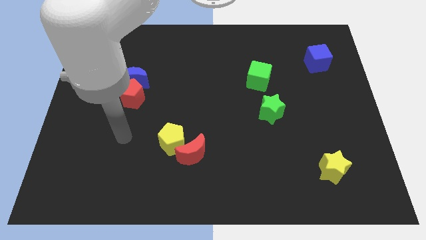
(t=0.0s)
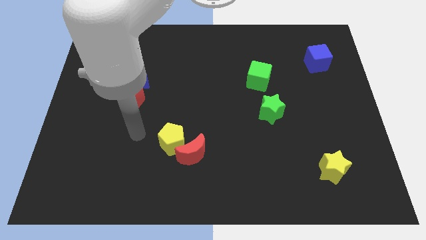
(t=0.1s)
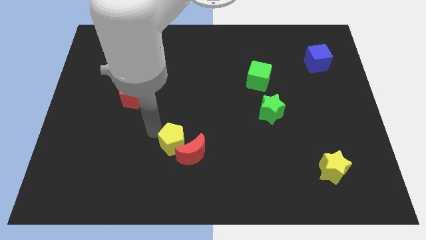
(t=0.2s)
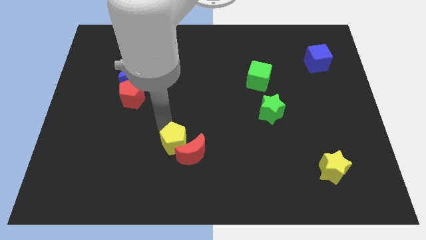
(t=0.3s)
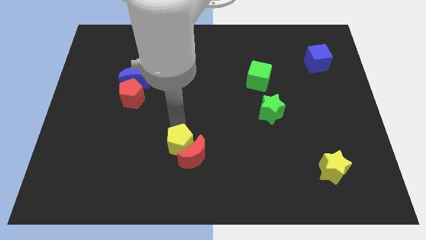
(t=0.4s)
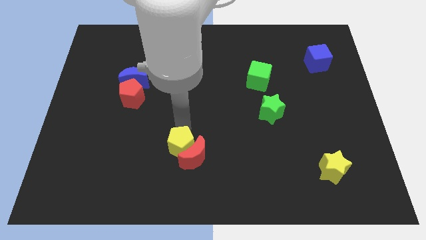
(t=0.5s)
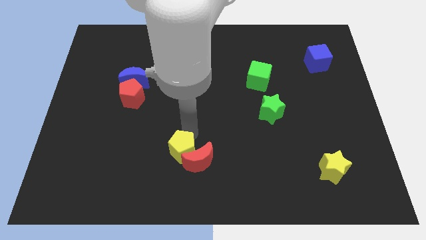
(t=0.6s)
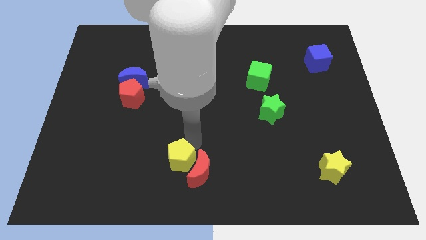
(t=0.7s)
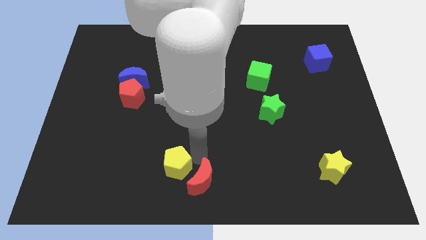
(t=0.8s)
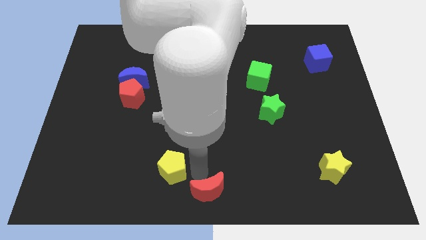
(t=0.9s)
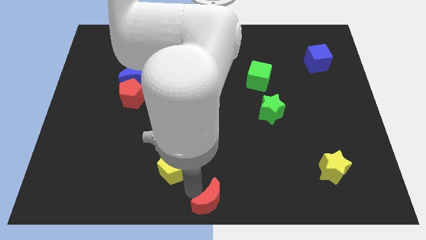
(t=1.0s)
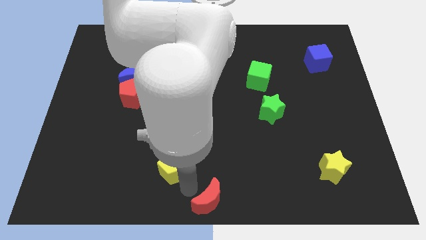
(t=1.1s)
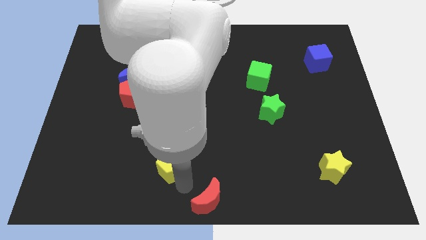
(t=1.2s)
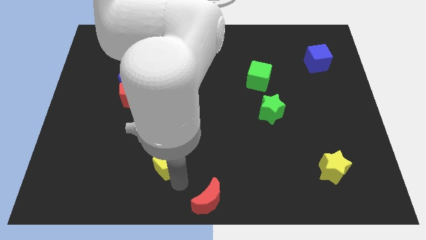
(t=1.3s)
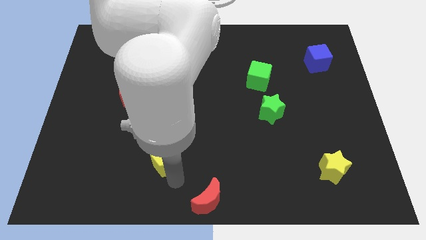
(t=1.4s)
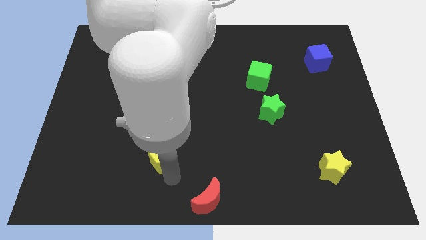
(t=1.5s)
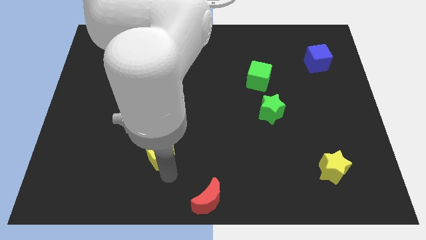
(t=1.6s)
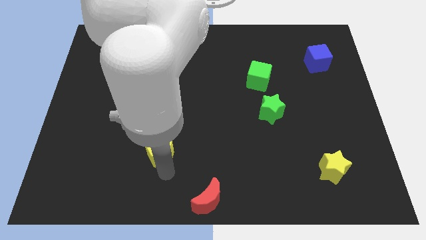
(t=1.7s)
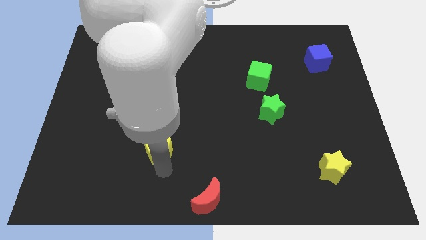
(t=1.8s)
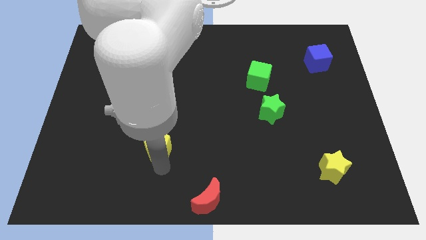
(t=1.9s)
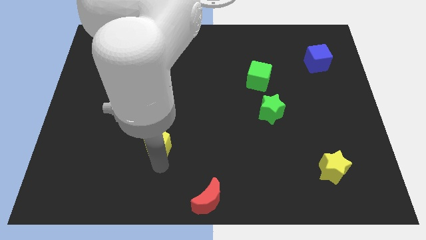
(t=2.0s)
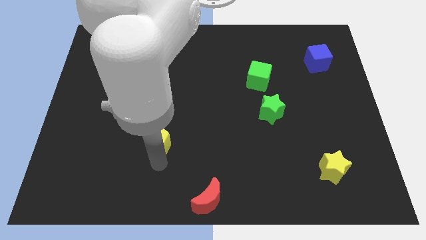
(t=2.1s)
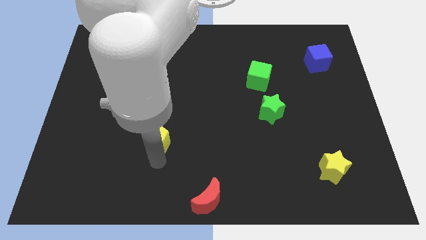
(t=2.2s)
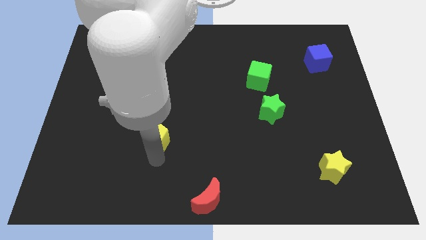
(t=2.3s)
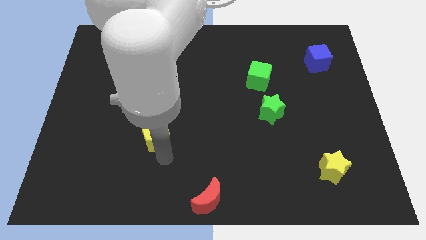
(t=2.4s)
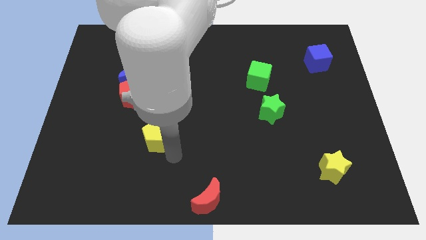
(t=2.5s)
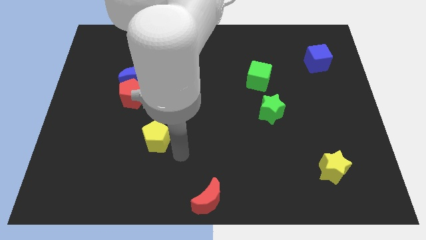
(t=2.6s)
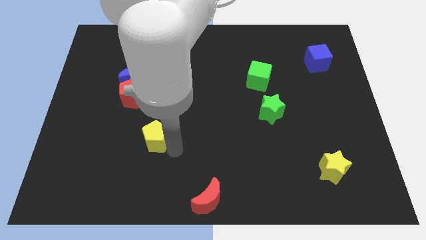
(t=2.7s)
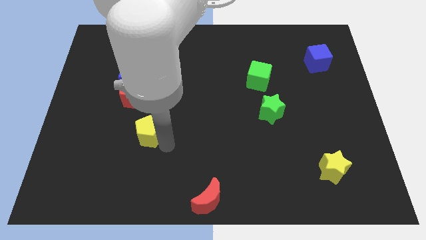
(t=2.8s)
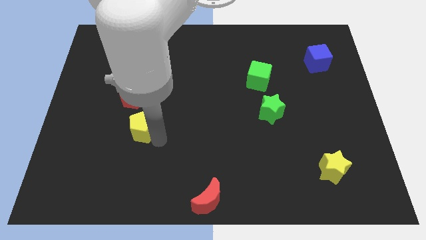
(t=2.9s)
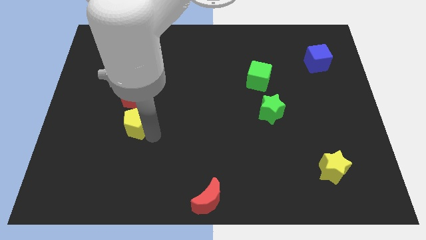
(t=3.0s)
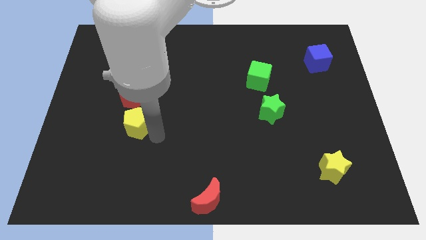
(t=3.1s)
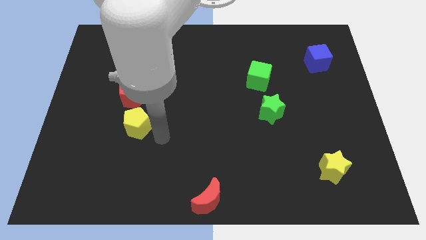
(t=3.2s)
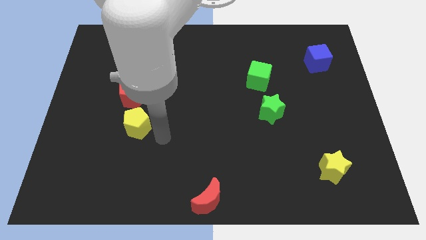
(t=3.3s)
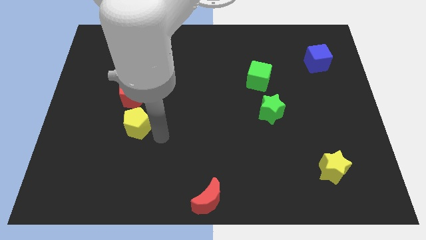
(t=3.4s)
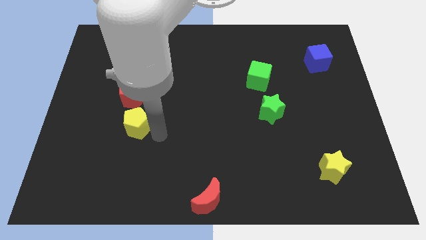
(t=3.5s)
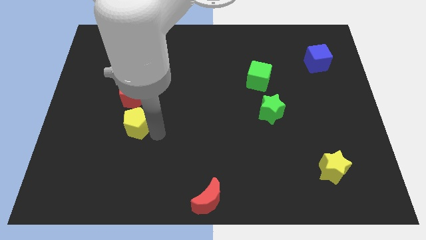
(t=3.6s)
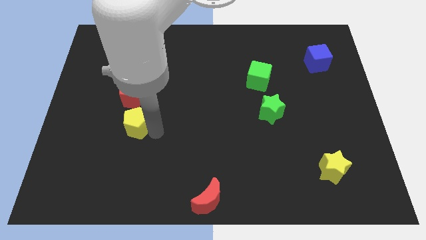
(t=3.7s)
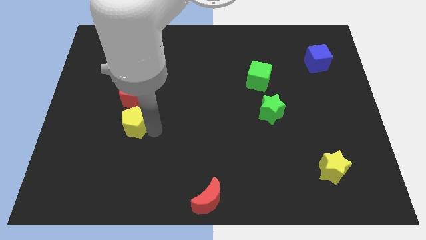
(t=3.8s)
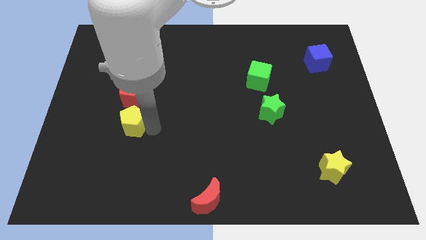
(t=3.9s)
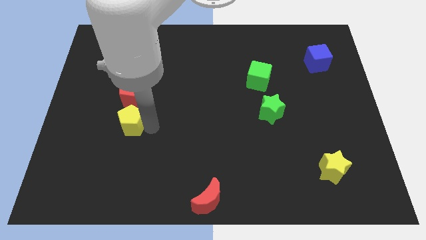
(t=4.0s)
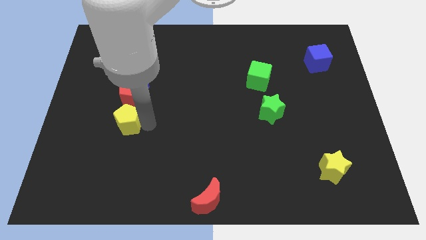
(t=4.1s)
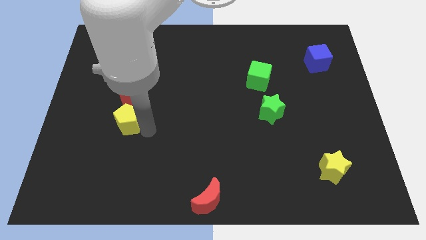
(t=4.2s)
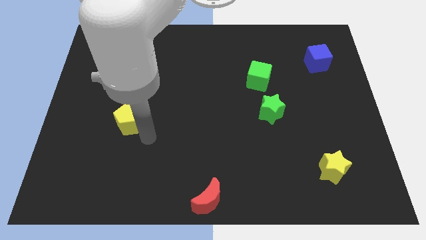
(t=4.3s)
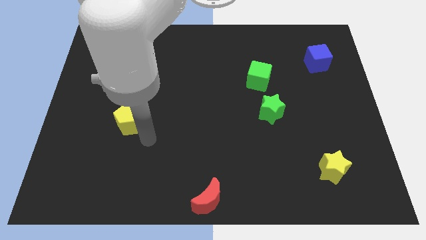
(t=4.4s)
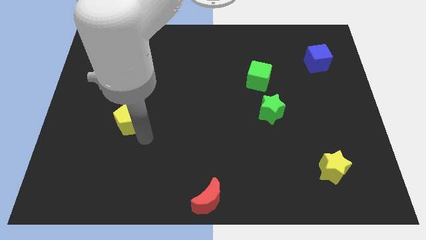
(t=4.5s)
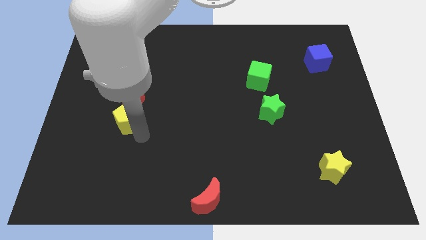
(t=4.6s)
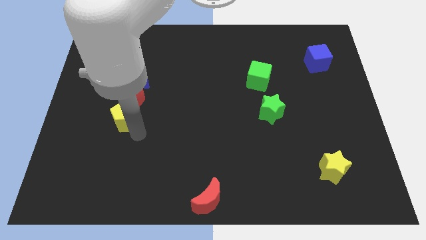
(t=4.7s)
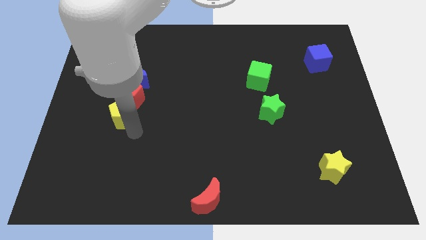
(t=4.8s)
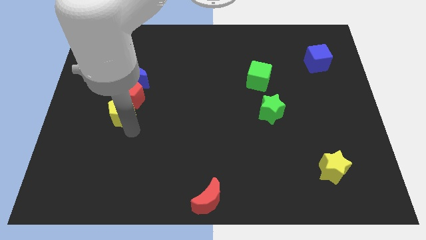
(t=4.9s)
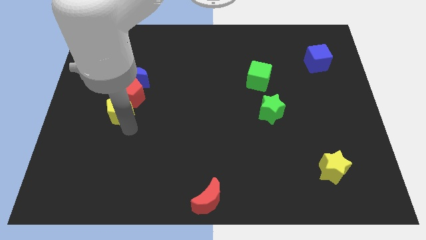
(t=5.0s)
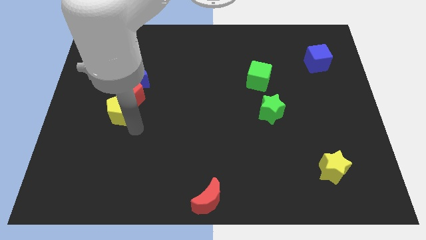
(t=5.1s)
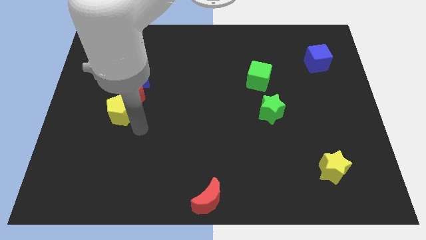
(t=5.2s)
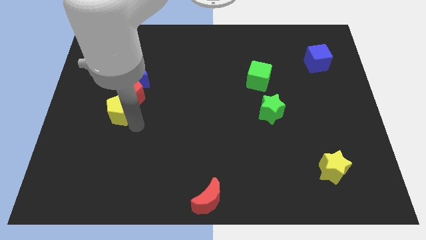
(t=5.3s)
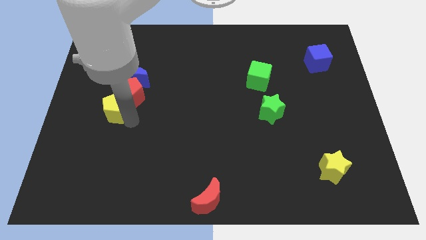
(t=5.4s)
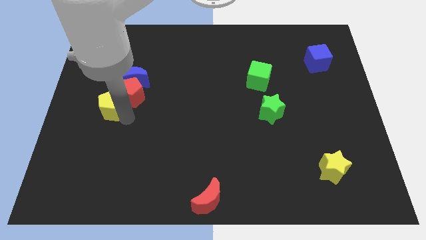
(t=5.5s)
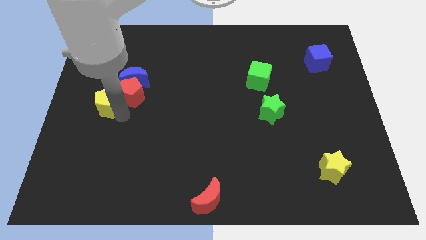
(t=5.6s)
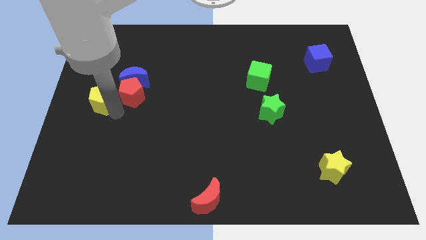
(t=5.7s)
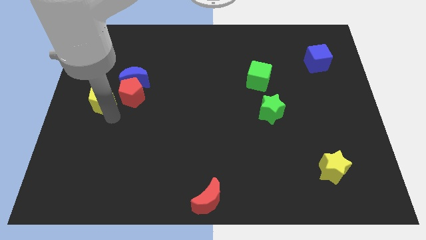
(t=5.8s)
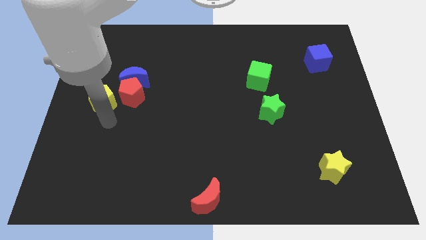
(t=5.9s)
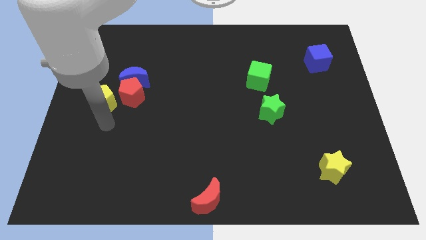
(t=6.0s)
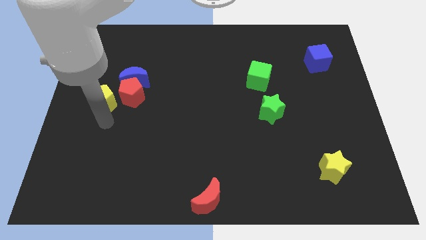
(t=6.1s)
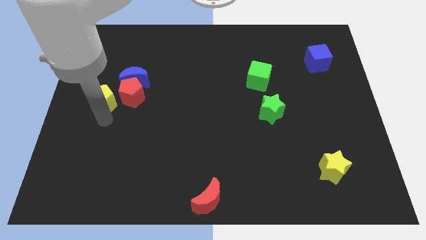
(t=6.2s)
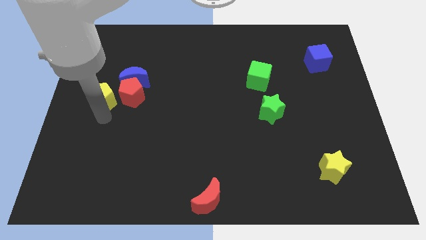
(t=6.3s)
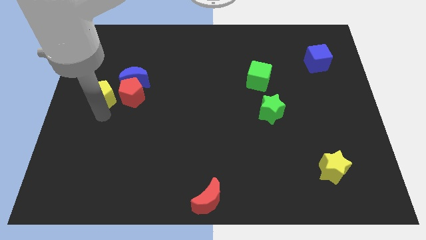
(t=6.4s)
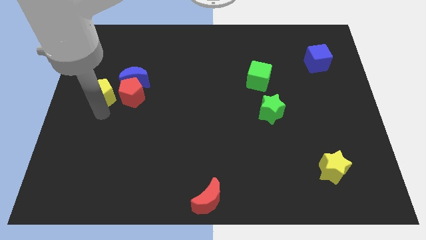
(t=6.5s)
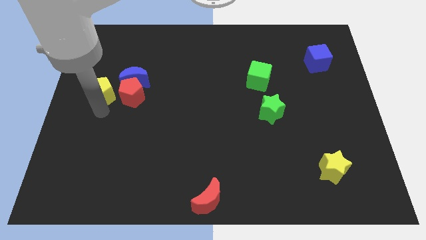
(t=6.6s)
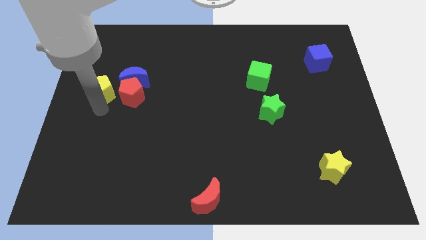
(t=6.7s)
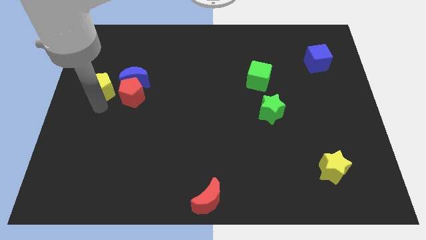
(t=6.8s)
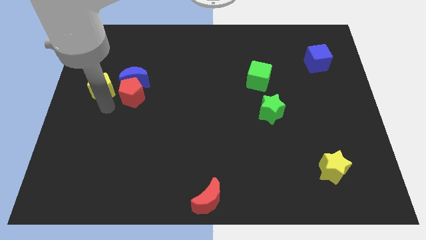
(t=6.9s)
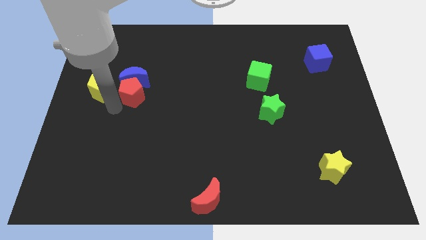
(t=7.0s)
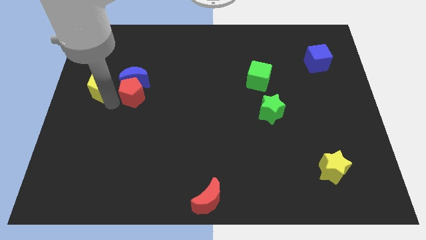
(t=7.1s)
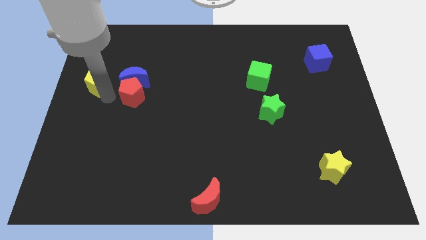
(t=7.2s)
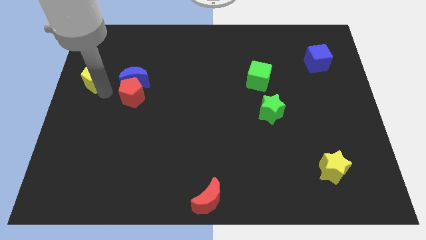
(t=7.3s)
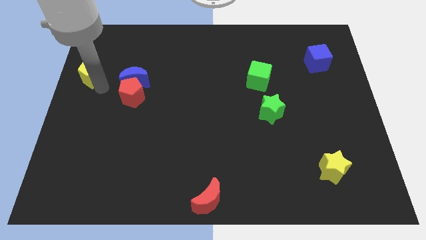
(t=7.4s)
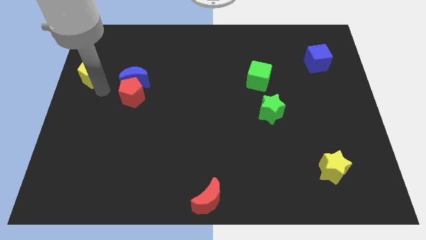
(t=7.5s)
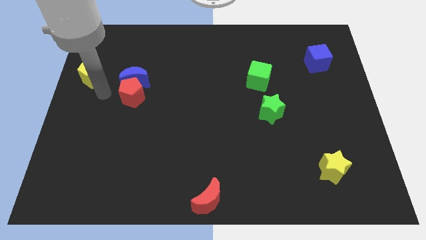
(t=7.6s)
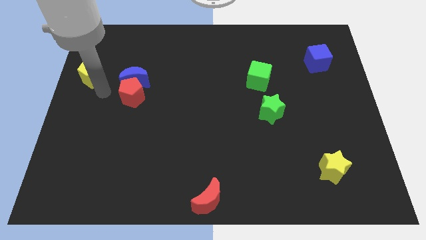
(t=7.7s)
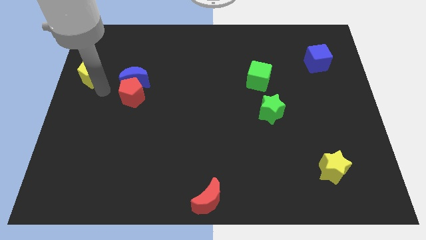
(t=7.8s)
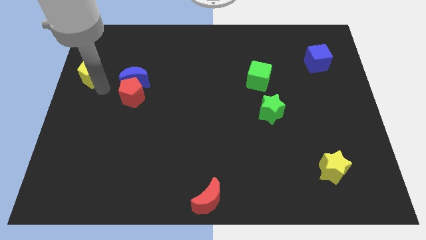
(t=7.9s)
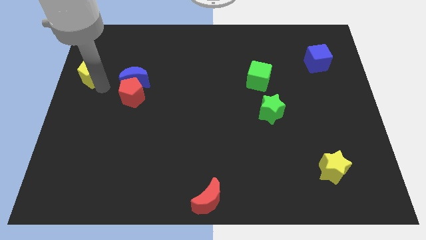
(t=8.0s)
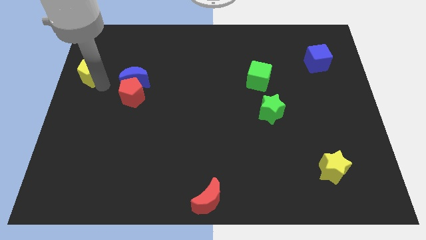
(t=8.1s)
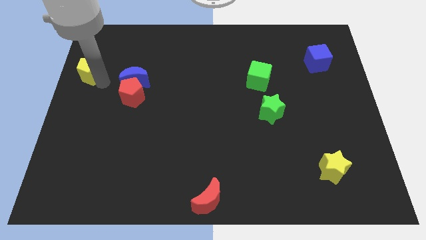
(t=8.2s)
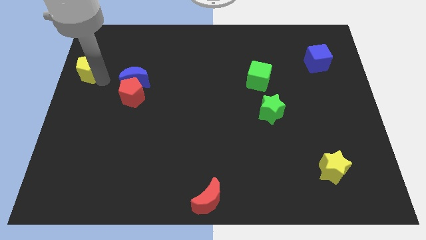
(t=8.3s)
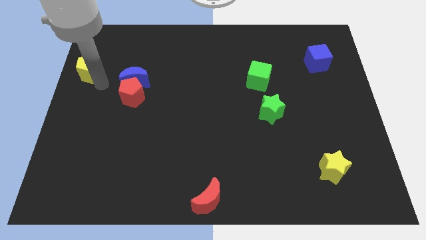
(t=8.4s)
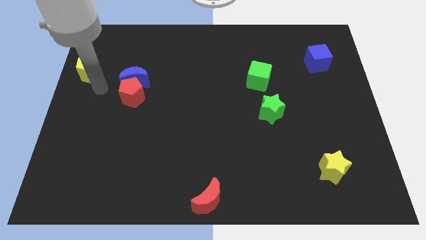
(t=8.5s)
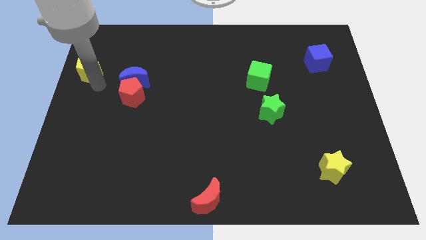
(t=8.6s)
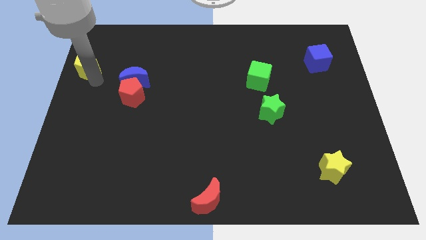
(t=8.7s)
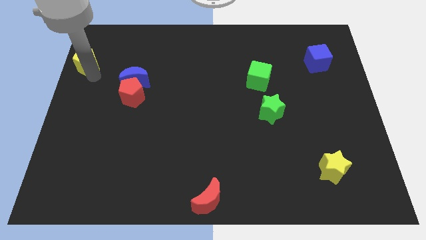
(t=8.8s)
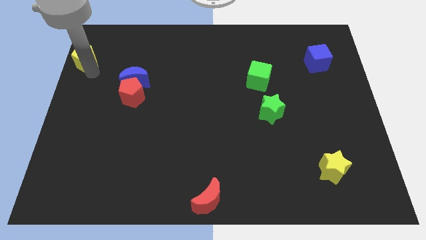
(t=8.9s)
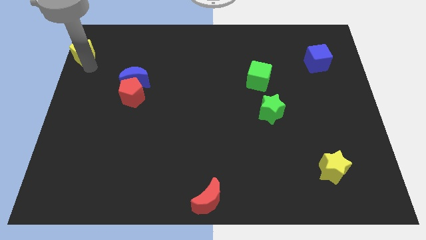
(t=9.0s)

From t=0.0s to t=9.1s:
put the yellow pentagon to the top left corner
